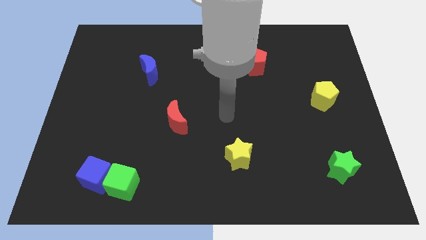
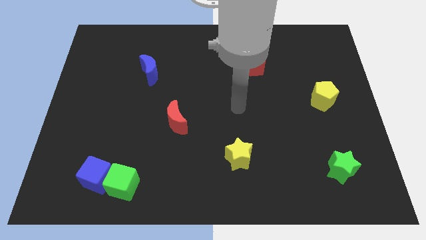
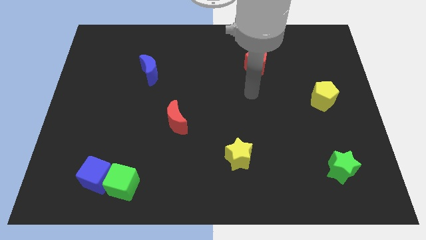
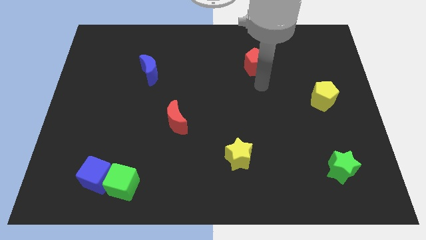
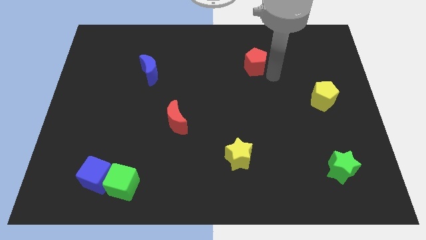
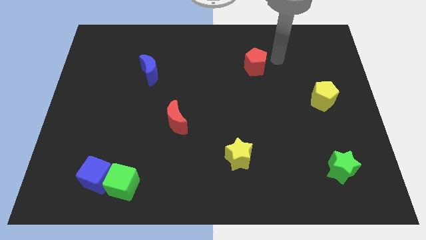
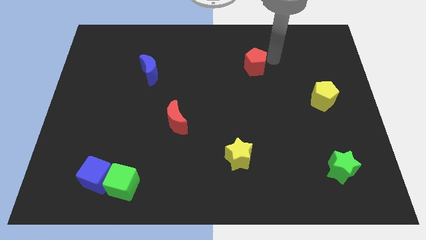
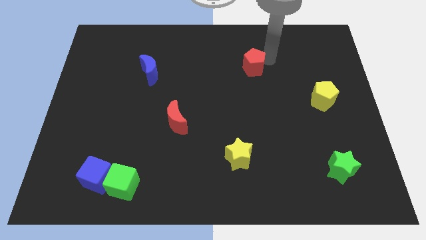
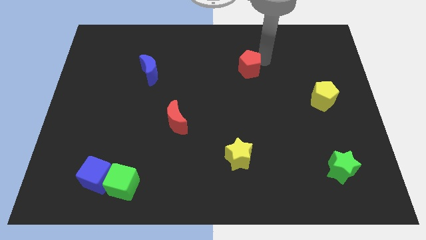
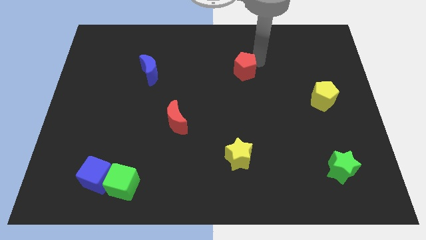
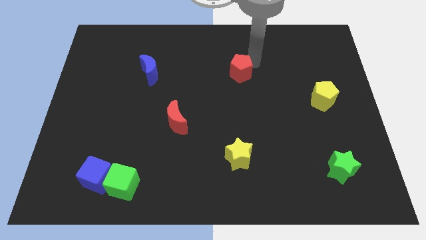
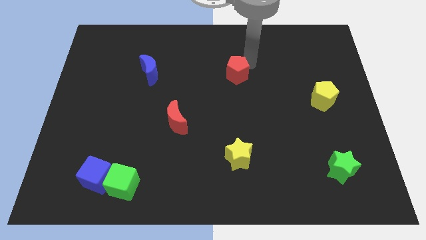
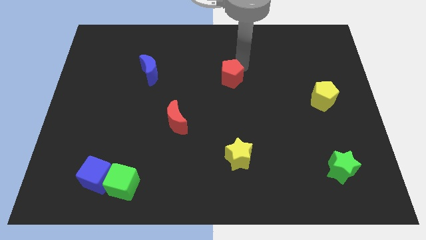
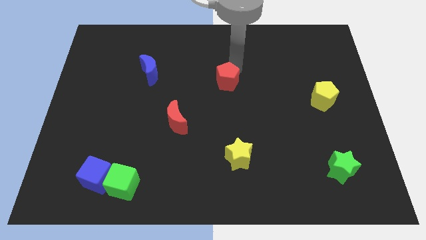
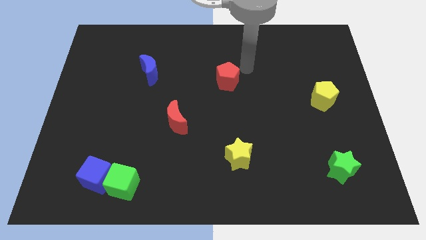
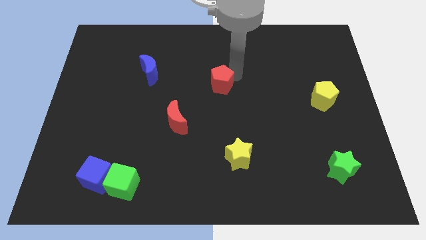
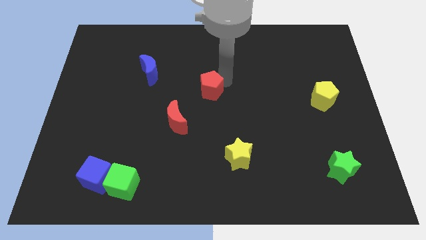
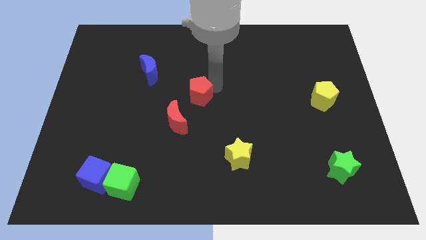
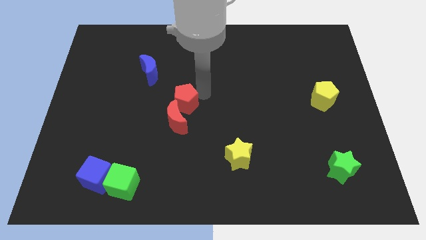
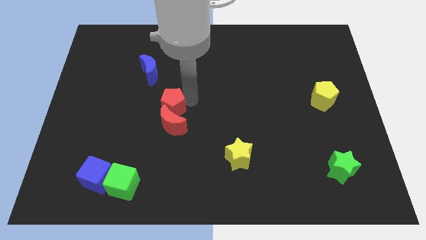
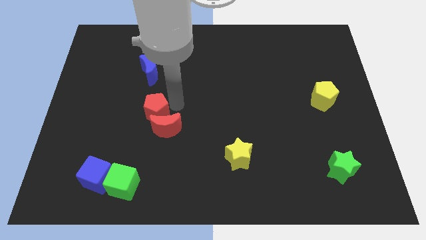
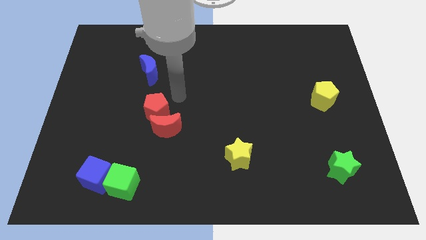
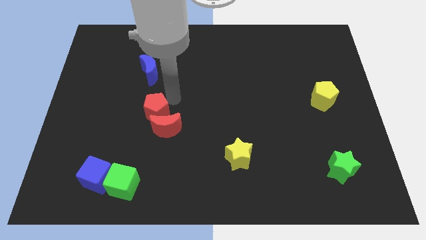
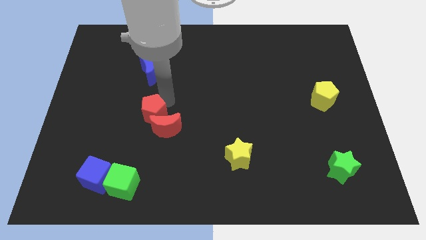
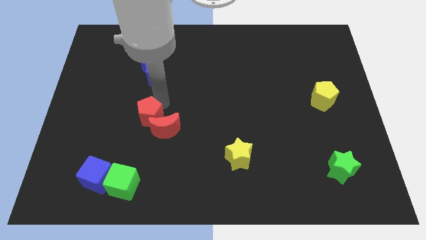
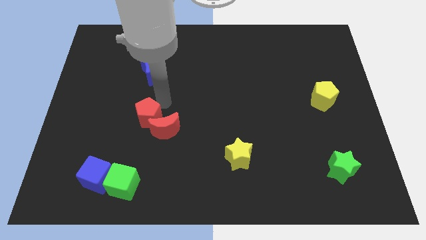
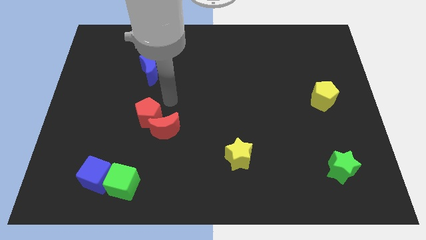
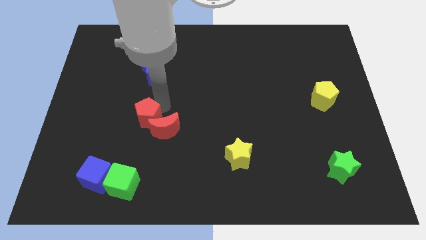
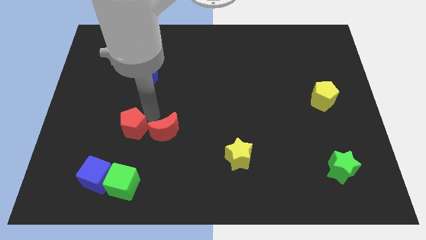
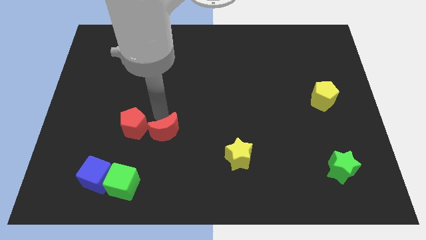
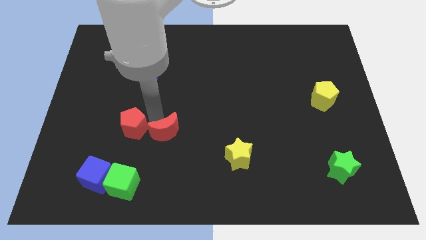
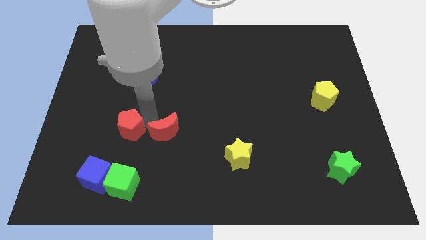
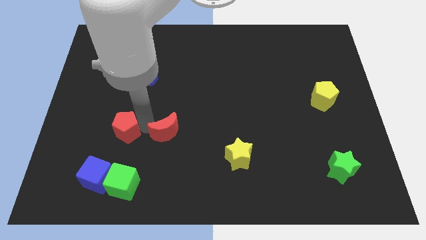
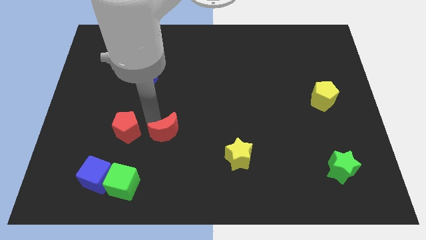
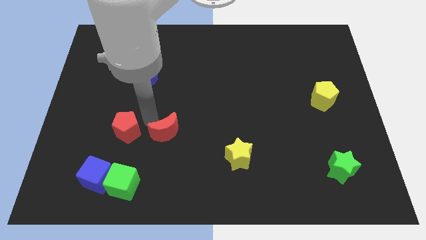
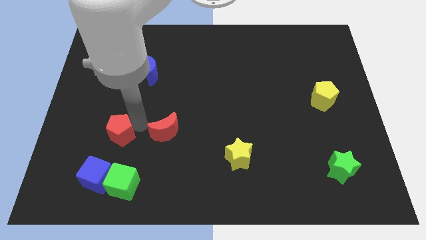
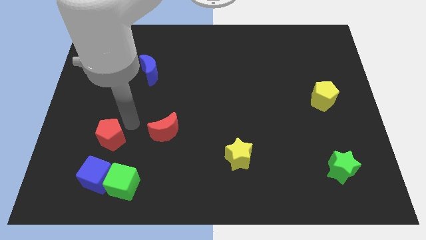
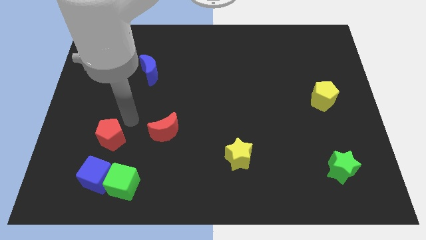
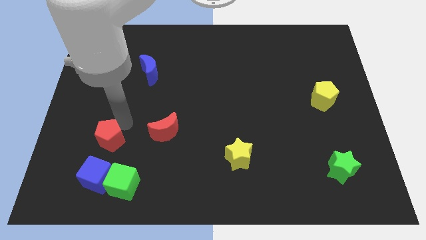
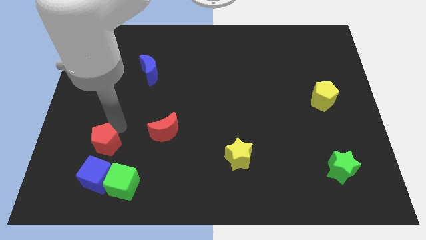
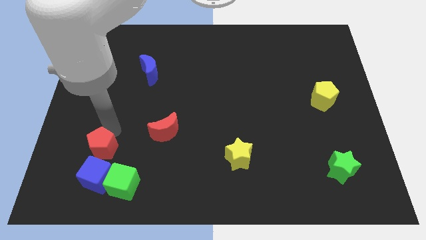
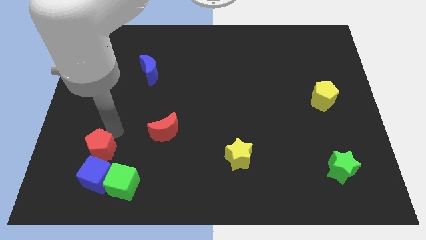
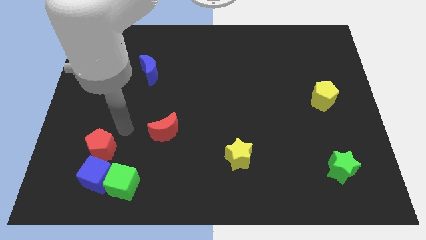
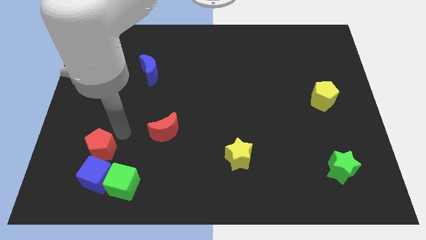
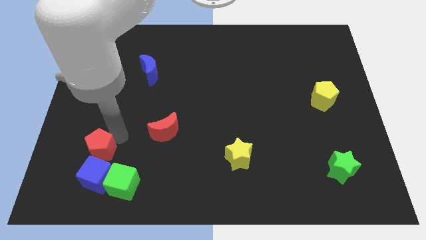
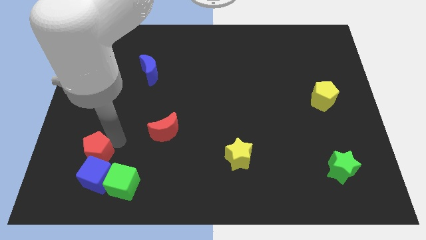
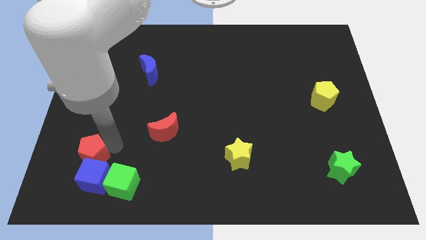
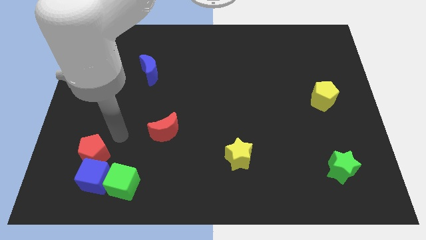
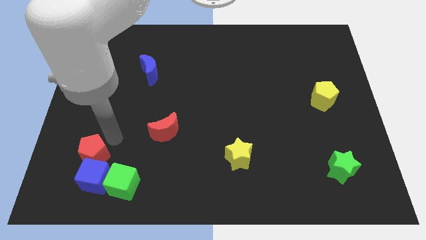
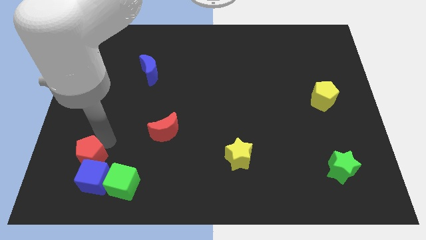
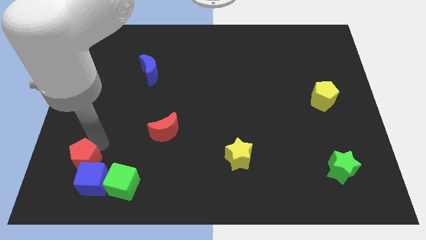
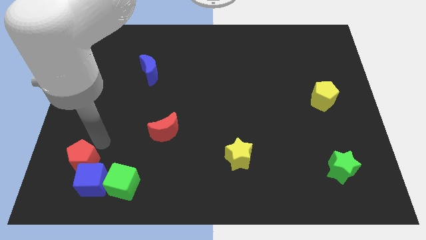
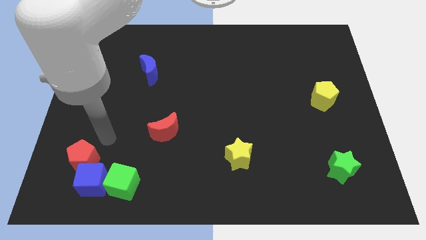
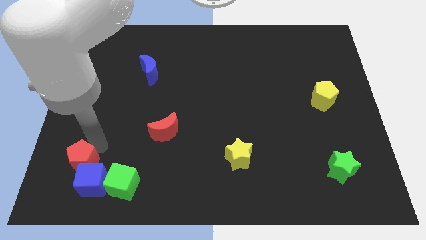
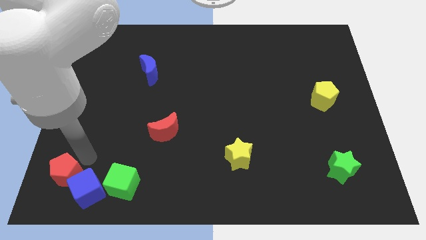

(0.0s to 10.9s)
push the red pentagon to the lower left corner
